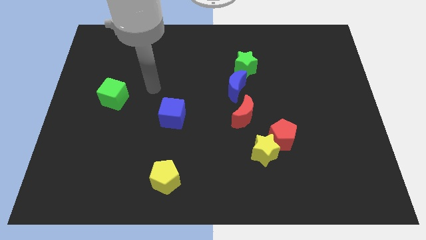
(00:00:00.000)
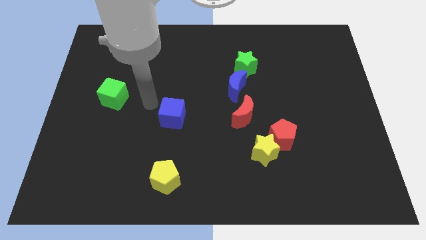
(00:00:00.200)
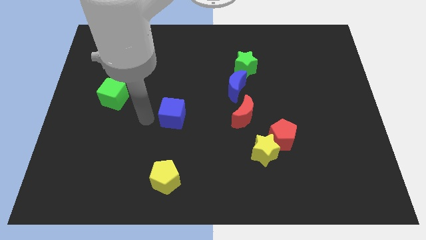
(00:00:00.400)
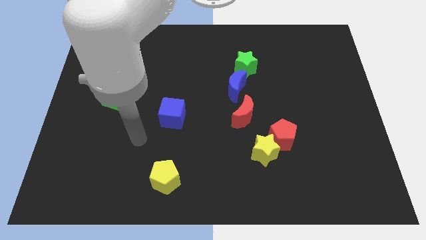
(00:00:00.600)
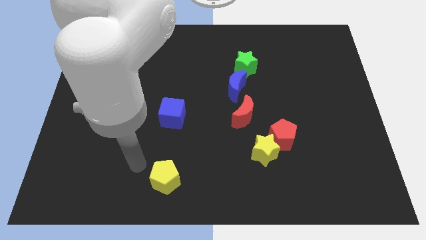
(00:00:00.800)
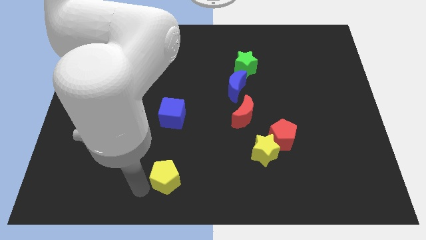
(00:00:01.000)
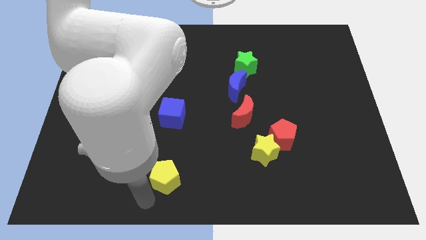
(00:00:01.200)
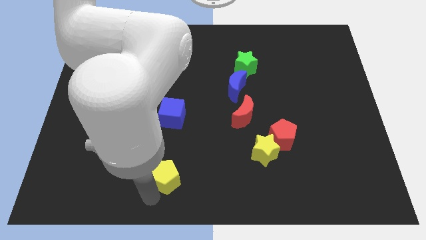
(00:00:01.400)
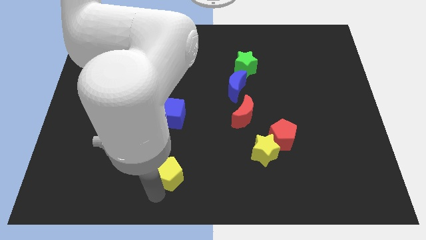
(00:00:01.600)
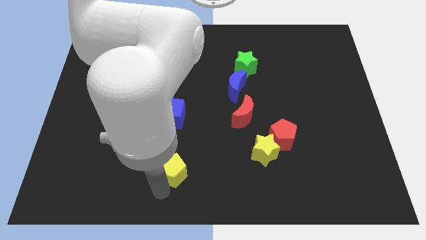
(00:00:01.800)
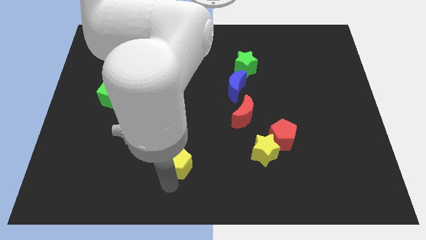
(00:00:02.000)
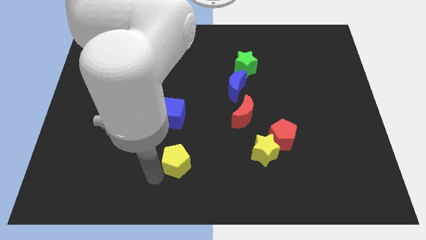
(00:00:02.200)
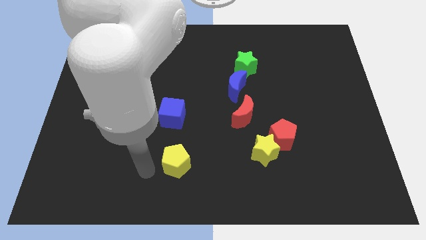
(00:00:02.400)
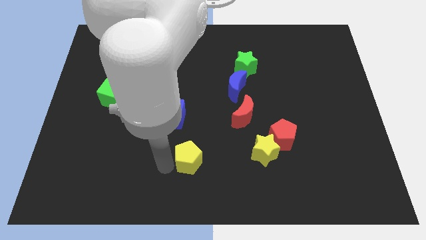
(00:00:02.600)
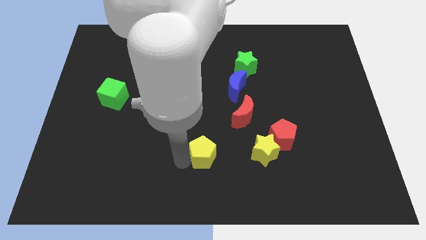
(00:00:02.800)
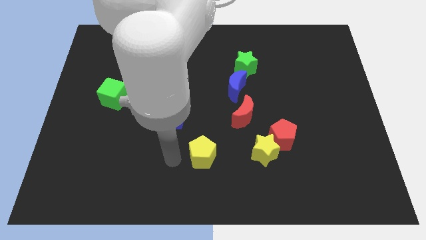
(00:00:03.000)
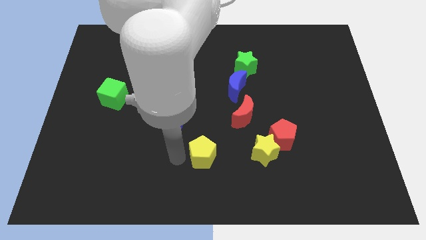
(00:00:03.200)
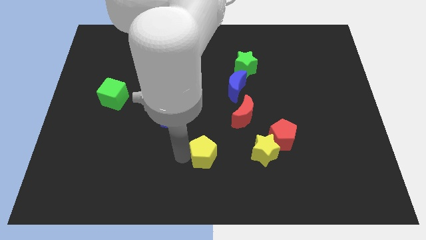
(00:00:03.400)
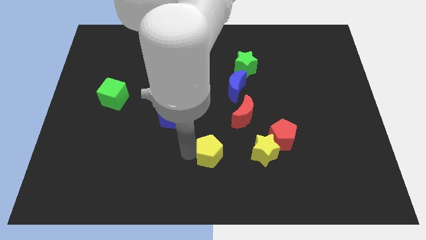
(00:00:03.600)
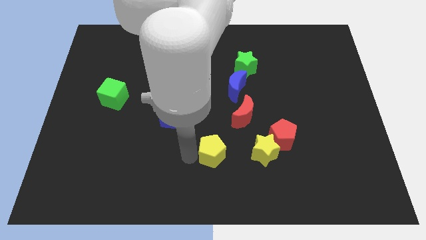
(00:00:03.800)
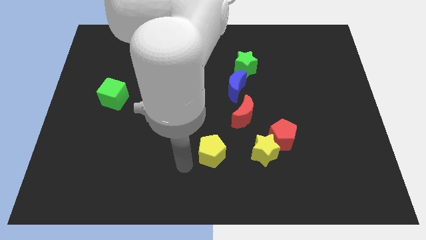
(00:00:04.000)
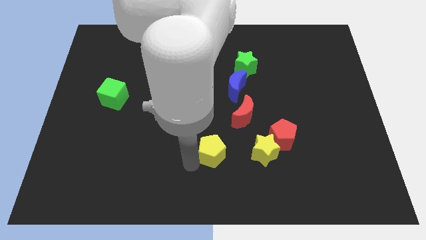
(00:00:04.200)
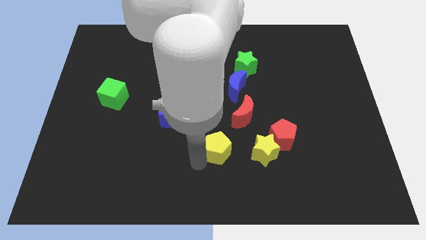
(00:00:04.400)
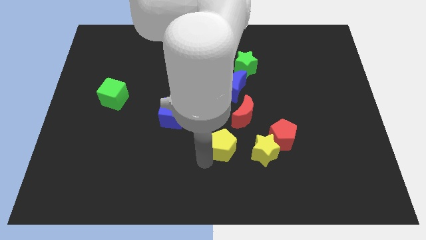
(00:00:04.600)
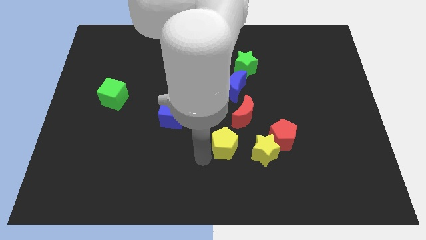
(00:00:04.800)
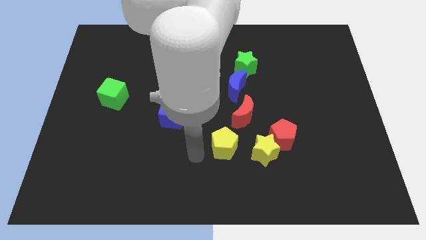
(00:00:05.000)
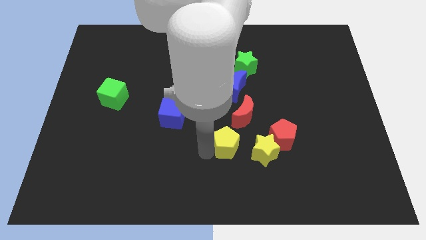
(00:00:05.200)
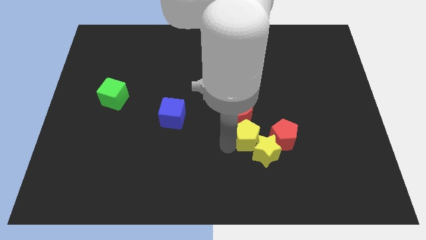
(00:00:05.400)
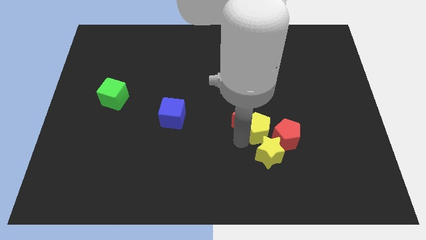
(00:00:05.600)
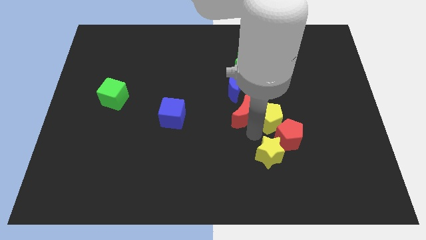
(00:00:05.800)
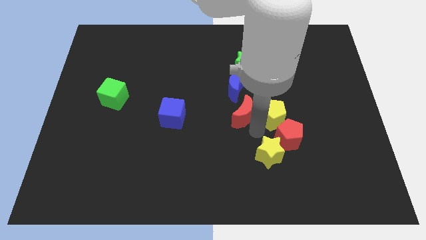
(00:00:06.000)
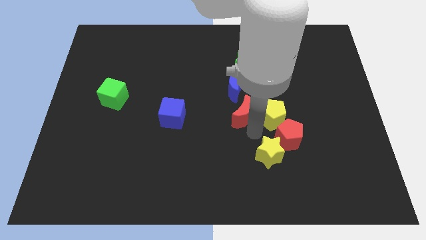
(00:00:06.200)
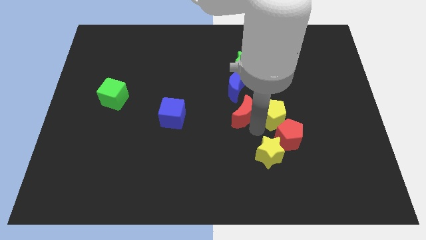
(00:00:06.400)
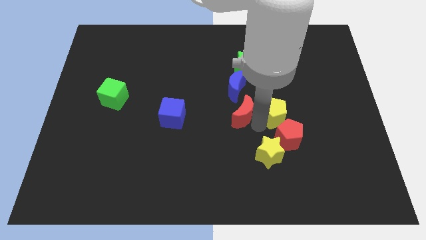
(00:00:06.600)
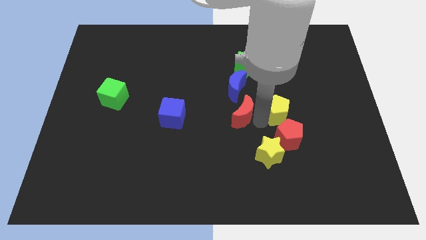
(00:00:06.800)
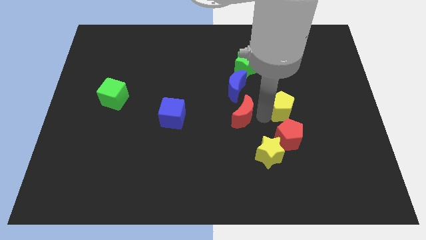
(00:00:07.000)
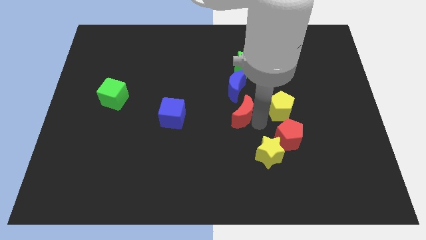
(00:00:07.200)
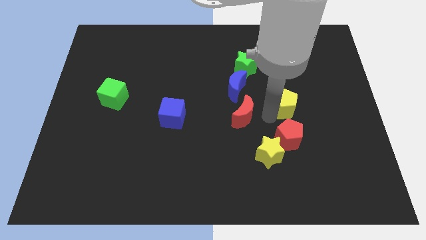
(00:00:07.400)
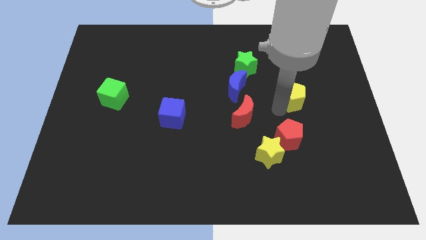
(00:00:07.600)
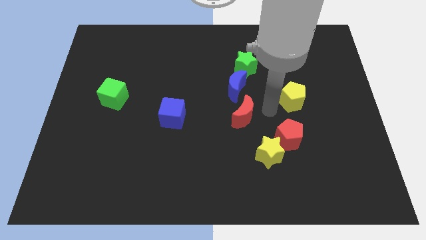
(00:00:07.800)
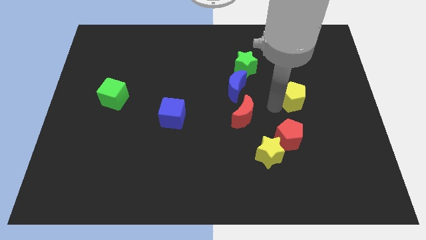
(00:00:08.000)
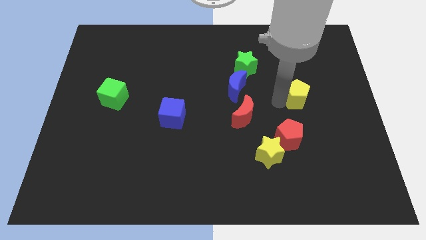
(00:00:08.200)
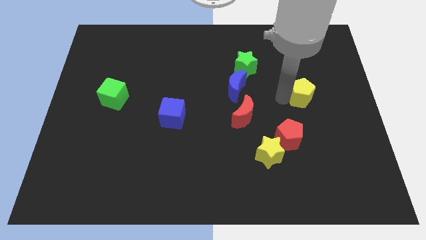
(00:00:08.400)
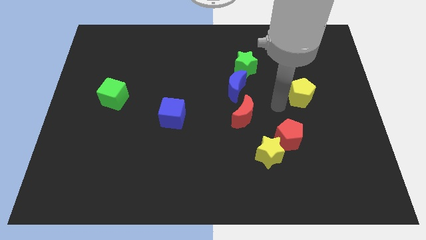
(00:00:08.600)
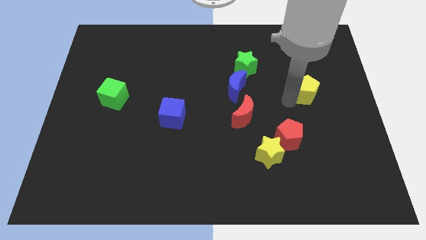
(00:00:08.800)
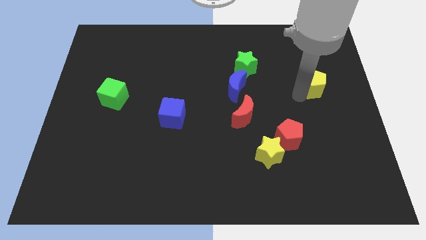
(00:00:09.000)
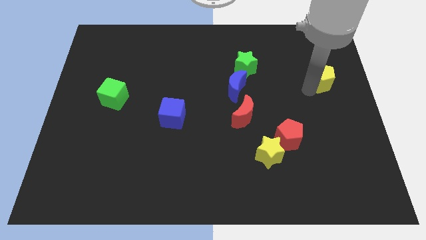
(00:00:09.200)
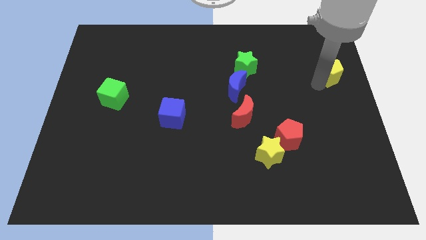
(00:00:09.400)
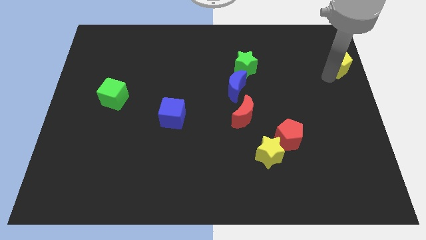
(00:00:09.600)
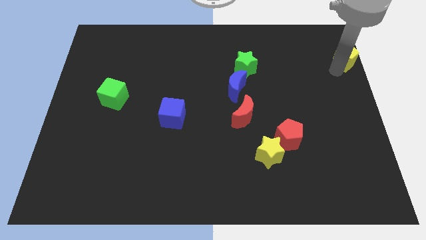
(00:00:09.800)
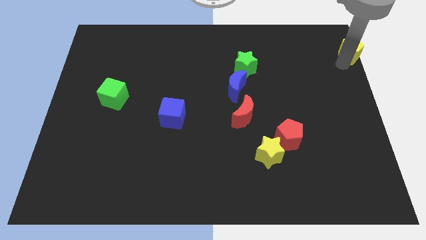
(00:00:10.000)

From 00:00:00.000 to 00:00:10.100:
put the yellow pentagon to the top right corner

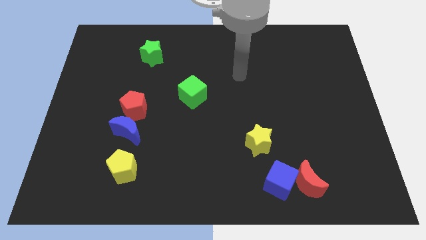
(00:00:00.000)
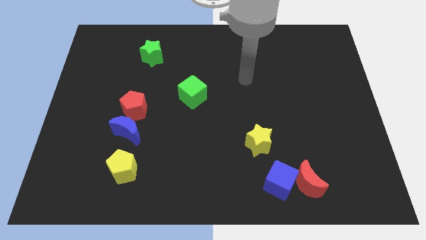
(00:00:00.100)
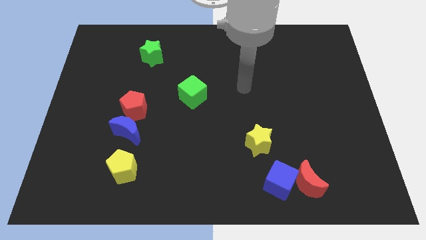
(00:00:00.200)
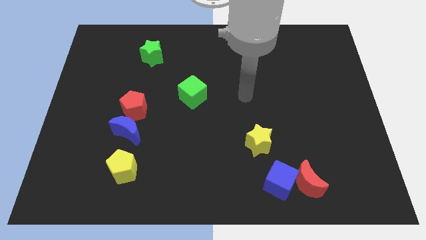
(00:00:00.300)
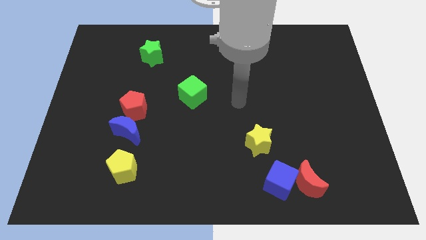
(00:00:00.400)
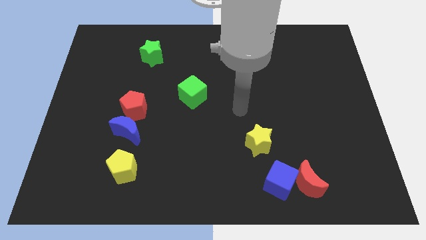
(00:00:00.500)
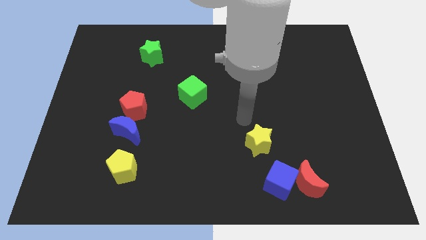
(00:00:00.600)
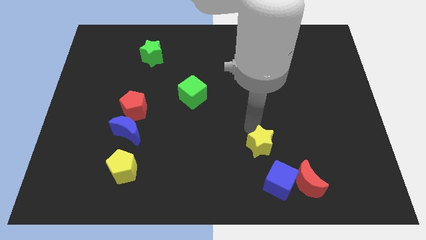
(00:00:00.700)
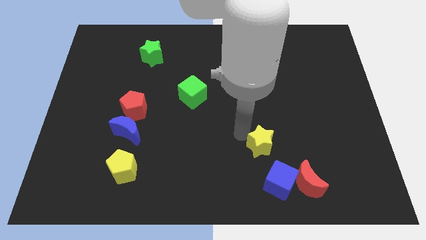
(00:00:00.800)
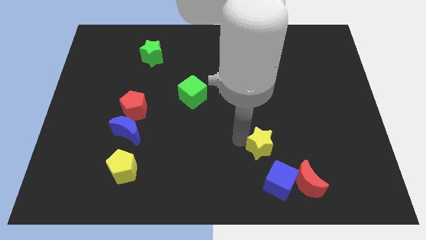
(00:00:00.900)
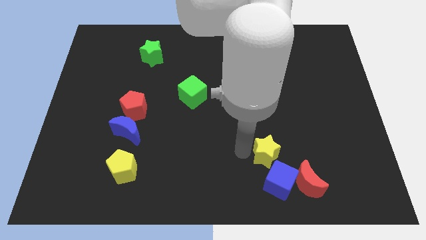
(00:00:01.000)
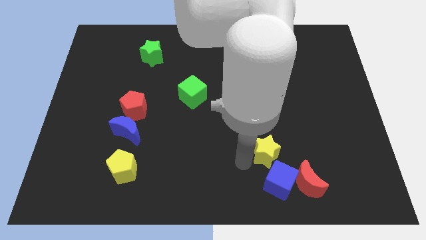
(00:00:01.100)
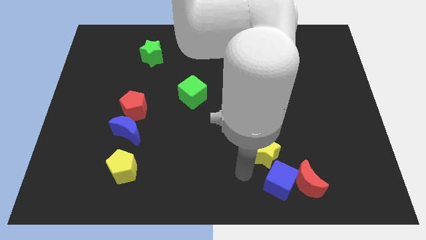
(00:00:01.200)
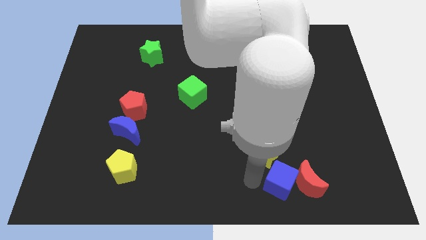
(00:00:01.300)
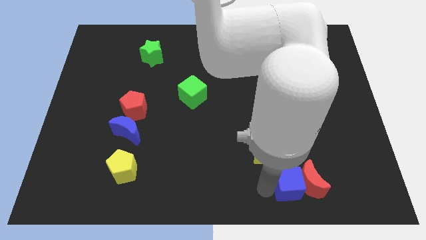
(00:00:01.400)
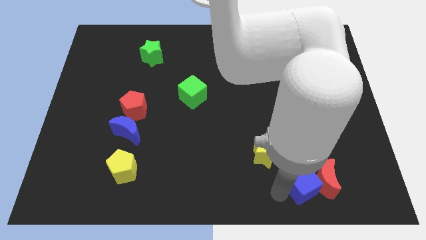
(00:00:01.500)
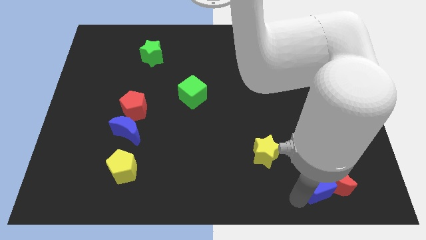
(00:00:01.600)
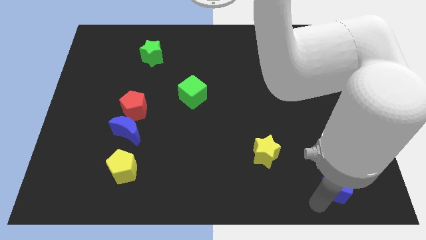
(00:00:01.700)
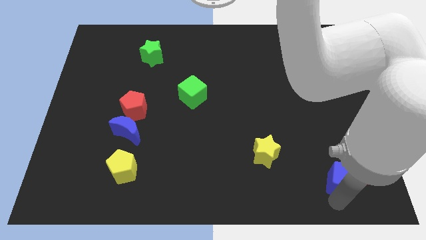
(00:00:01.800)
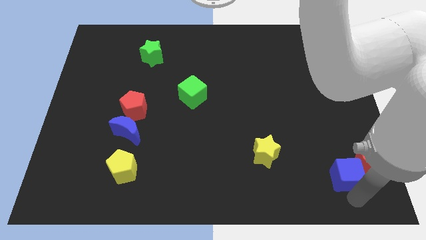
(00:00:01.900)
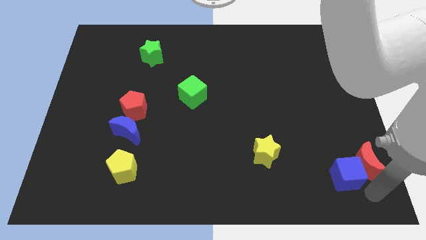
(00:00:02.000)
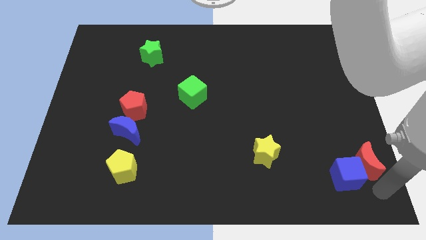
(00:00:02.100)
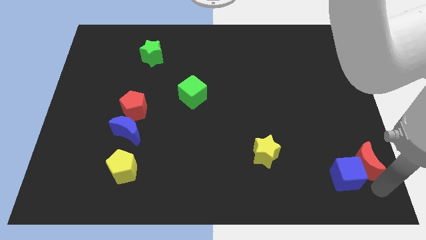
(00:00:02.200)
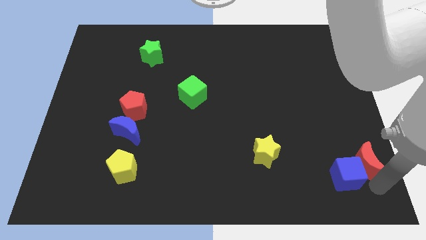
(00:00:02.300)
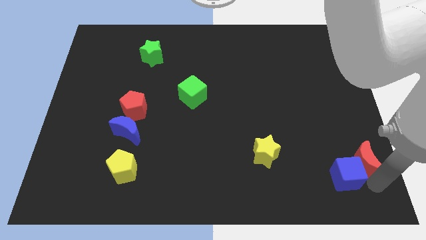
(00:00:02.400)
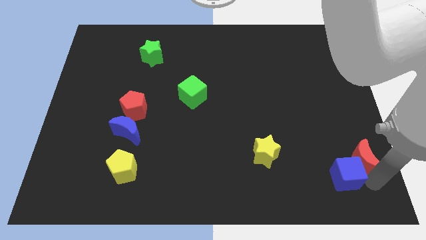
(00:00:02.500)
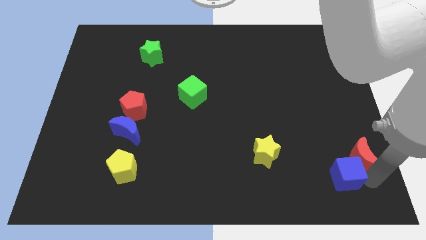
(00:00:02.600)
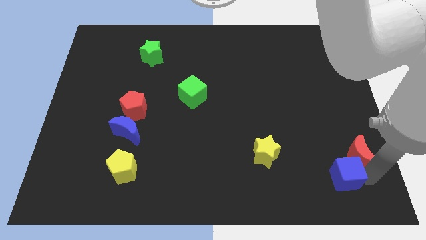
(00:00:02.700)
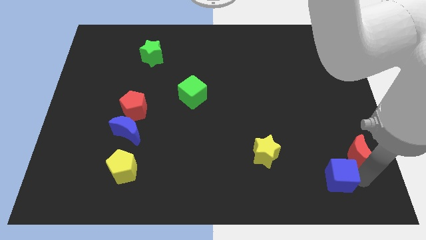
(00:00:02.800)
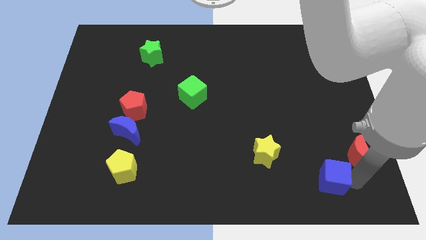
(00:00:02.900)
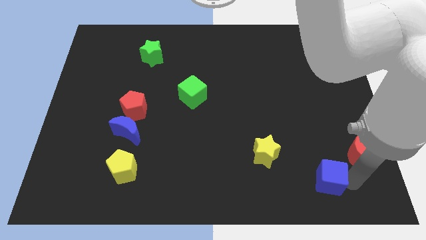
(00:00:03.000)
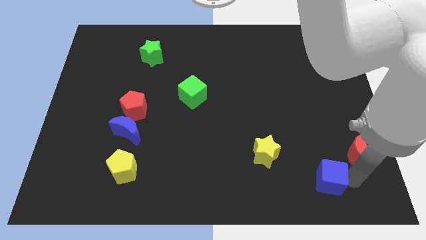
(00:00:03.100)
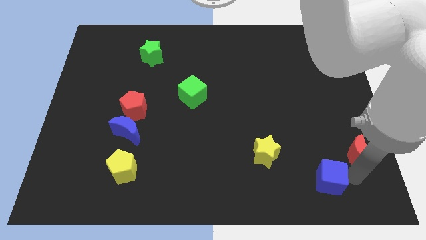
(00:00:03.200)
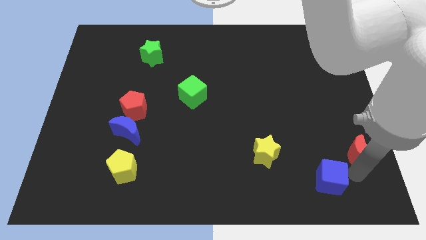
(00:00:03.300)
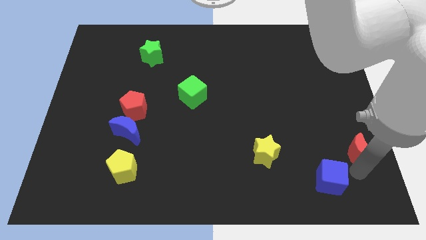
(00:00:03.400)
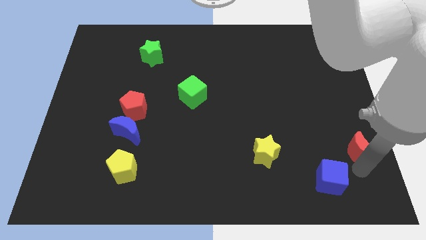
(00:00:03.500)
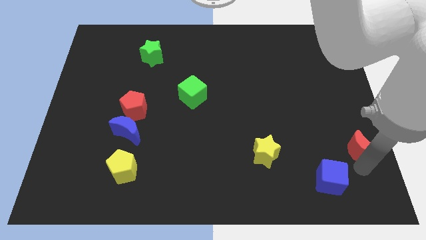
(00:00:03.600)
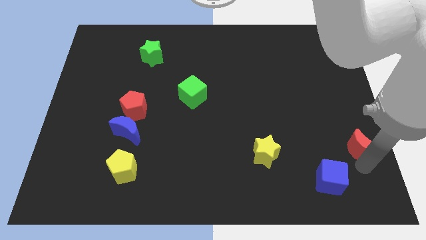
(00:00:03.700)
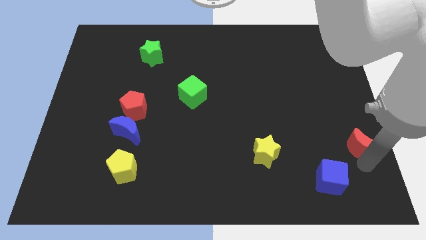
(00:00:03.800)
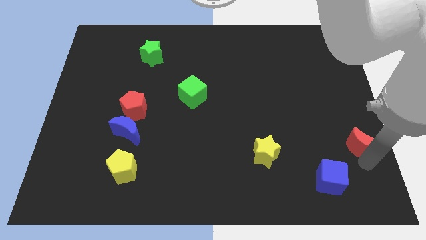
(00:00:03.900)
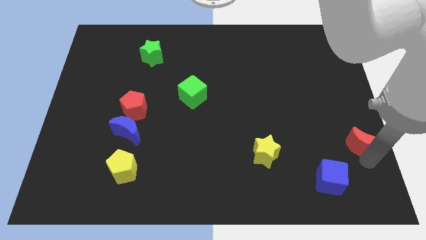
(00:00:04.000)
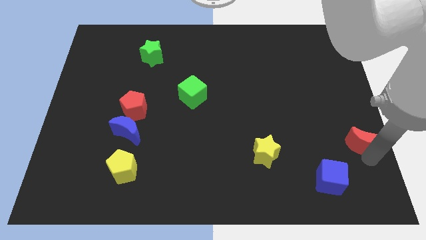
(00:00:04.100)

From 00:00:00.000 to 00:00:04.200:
slide the red moon to the right side of the board
